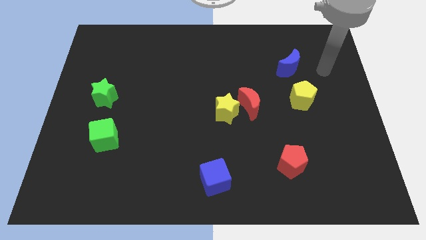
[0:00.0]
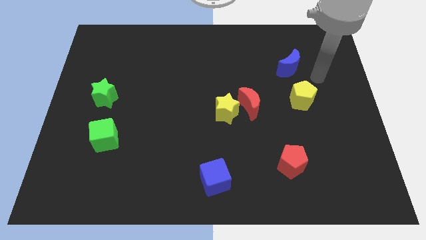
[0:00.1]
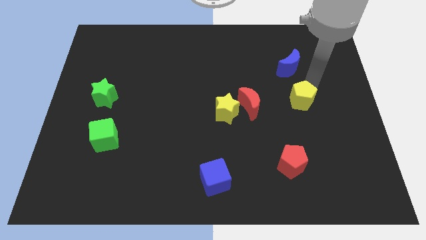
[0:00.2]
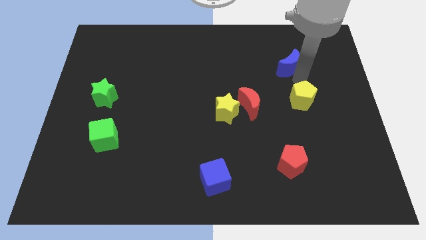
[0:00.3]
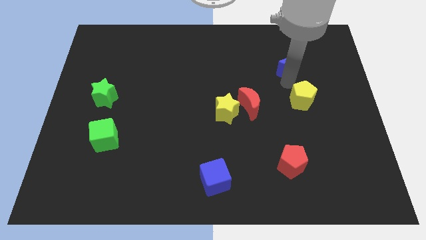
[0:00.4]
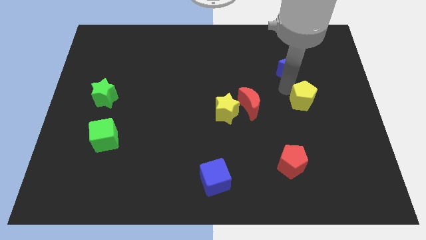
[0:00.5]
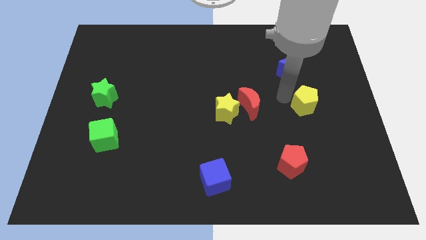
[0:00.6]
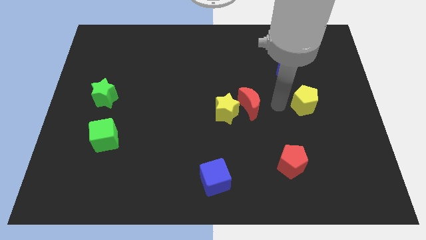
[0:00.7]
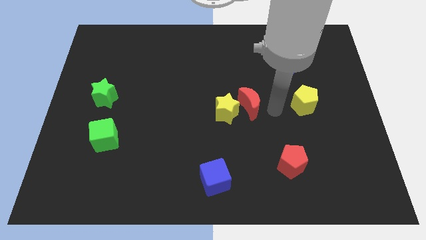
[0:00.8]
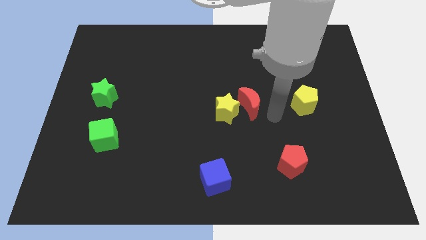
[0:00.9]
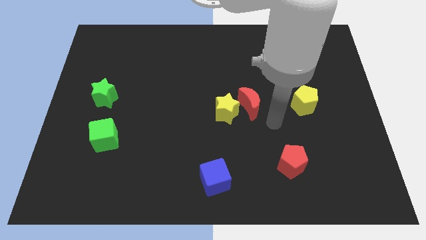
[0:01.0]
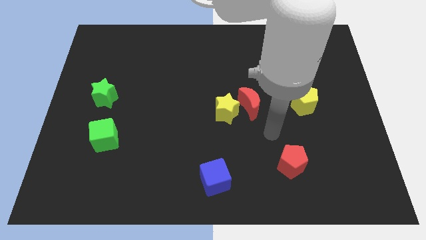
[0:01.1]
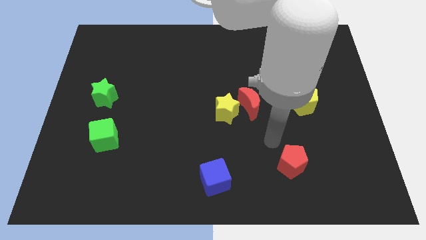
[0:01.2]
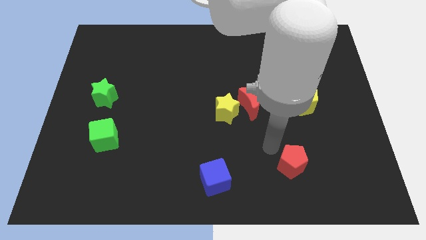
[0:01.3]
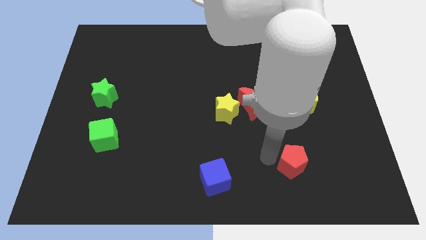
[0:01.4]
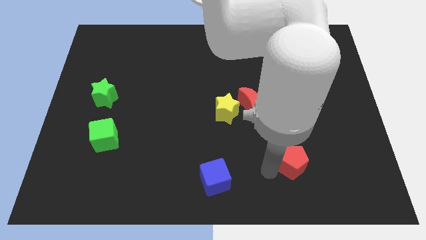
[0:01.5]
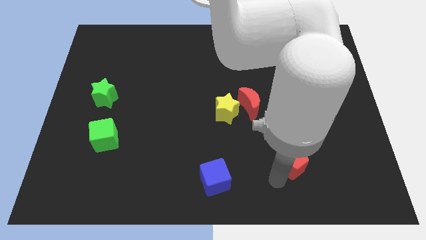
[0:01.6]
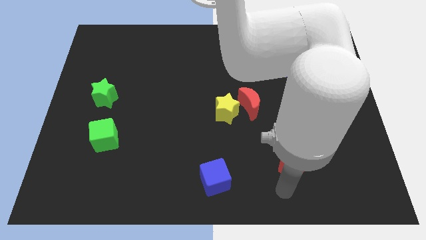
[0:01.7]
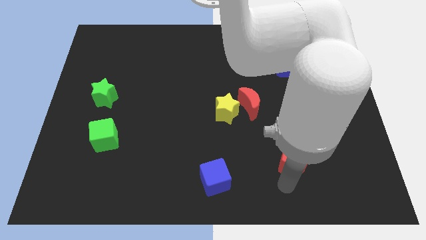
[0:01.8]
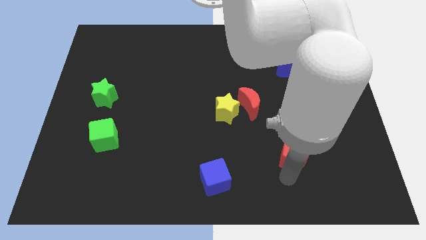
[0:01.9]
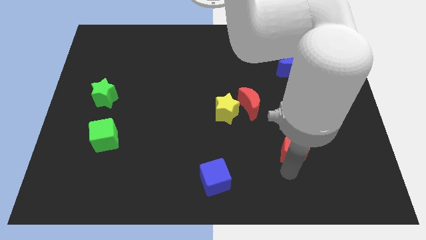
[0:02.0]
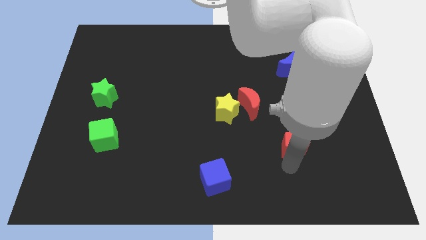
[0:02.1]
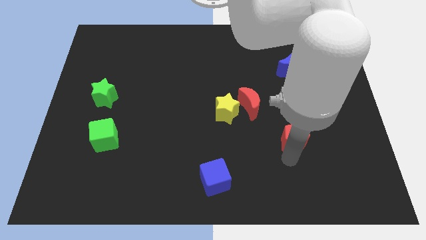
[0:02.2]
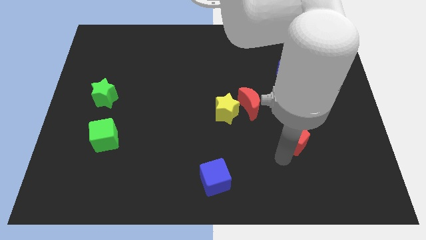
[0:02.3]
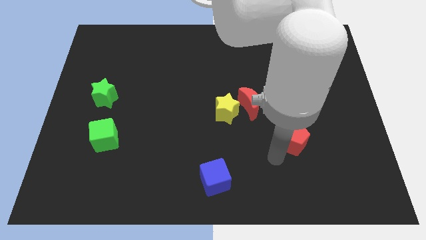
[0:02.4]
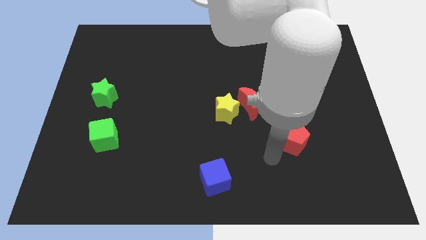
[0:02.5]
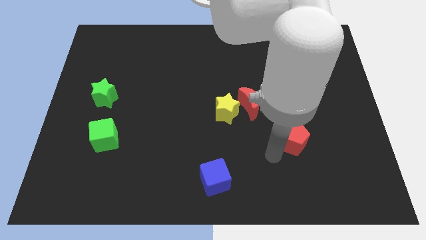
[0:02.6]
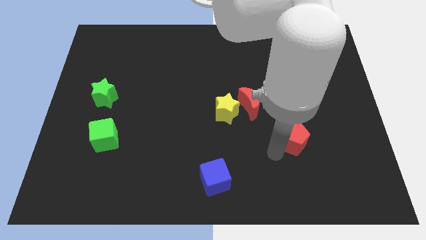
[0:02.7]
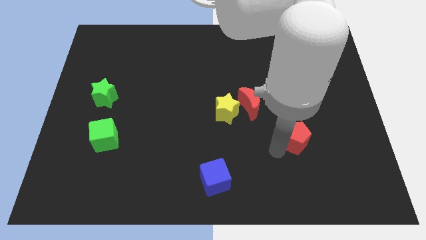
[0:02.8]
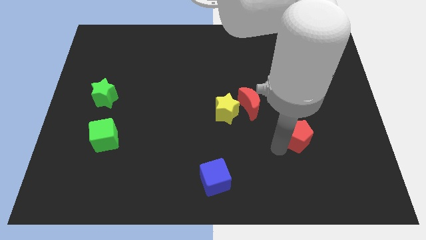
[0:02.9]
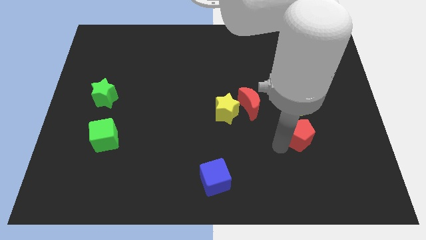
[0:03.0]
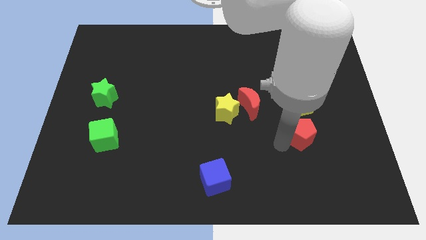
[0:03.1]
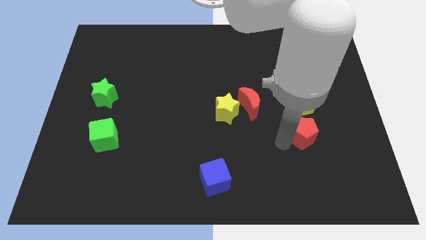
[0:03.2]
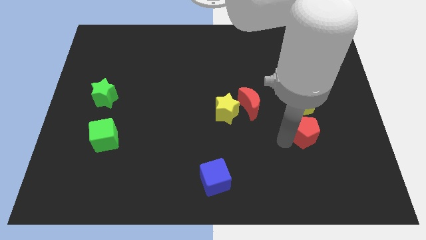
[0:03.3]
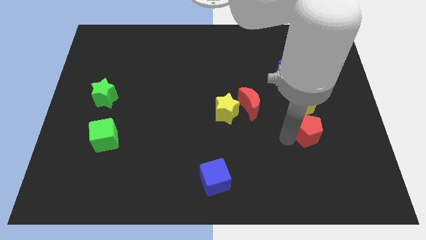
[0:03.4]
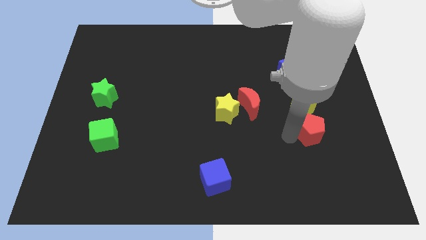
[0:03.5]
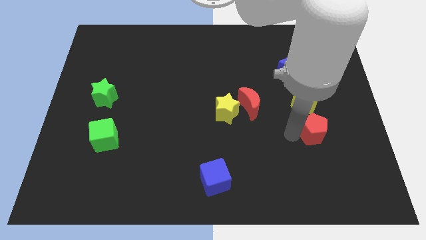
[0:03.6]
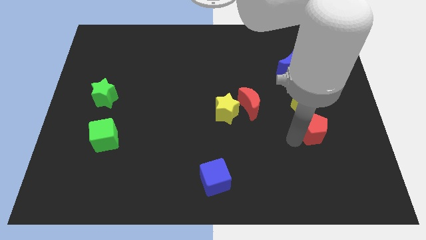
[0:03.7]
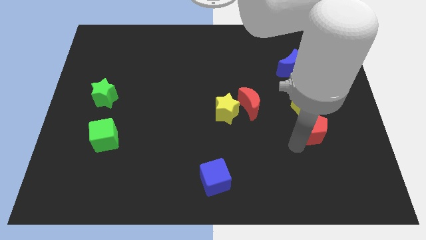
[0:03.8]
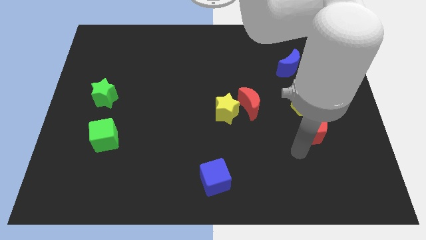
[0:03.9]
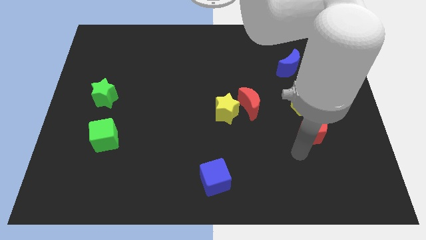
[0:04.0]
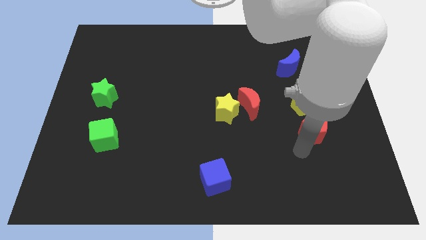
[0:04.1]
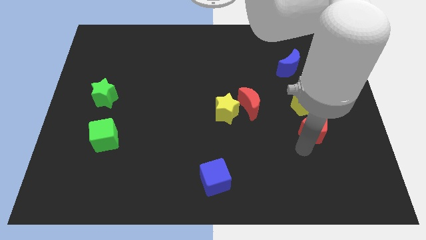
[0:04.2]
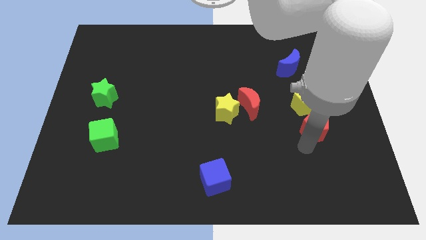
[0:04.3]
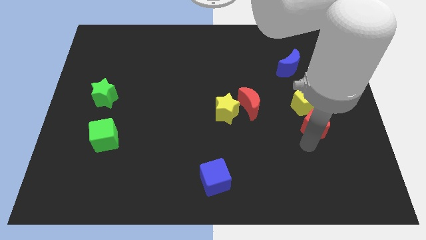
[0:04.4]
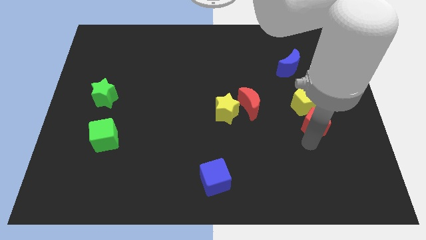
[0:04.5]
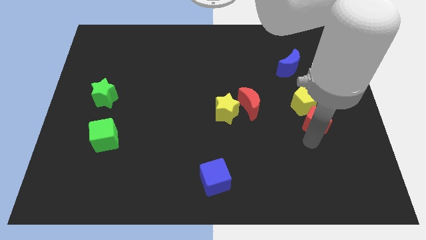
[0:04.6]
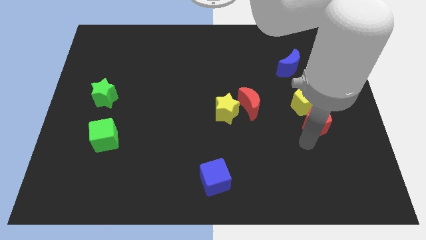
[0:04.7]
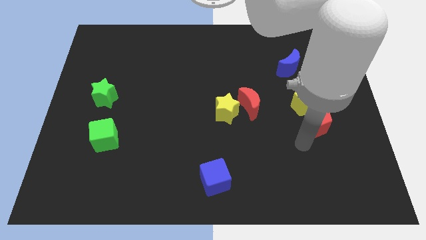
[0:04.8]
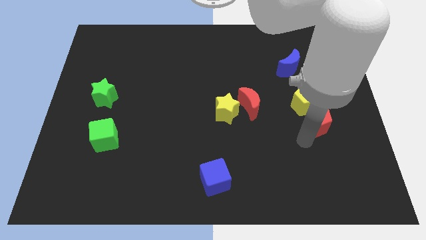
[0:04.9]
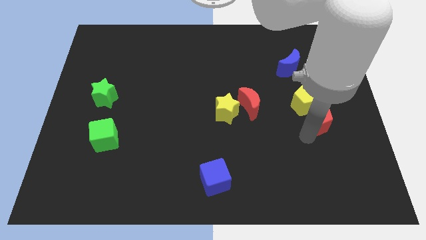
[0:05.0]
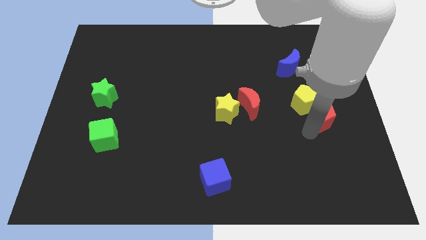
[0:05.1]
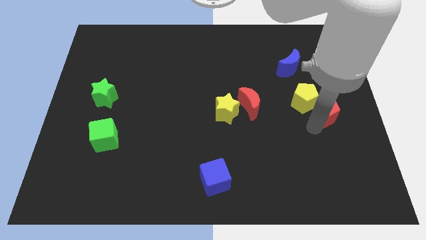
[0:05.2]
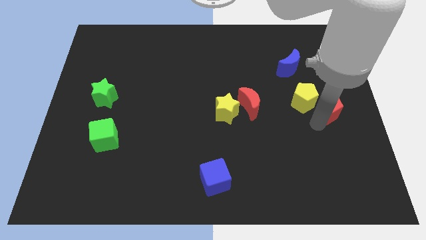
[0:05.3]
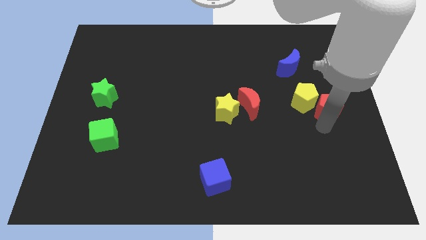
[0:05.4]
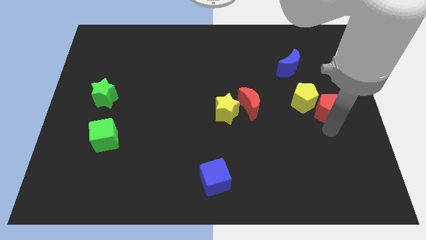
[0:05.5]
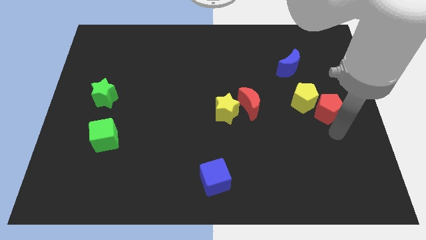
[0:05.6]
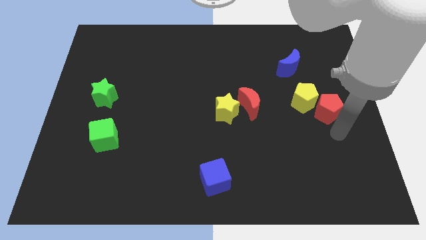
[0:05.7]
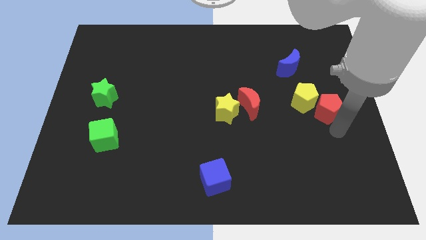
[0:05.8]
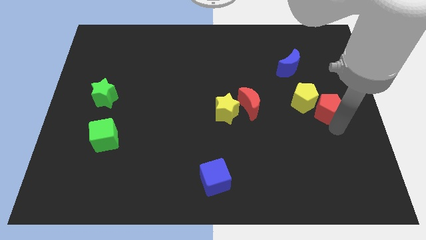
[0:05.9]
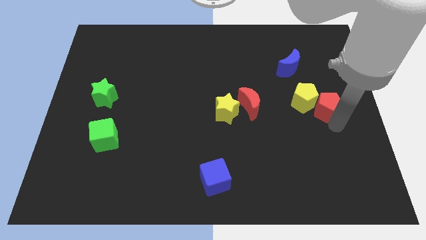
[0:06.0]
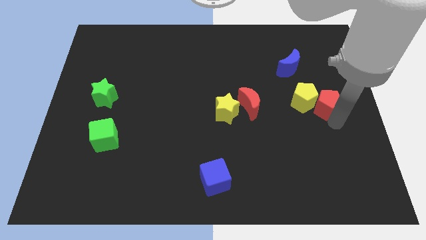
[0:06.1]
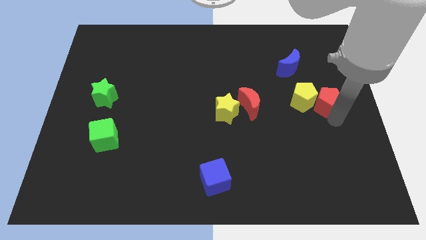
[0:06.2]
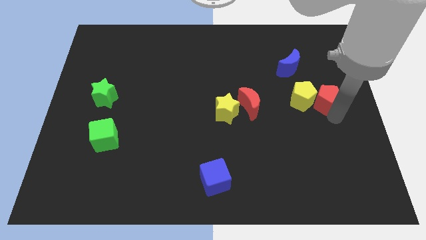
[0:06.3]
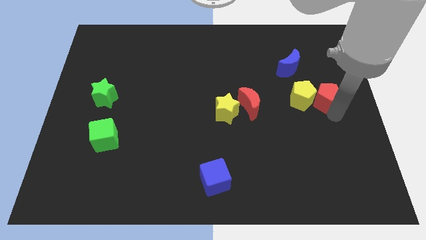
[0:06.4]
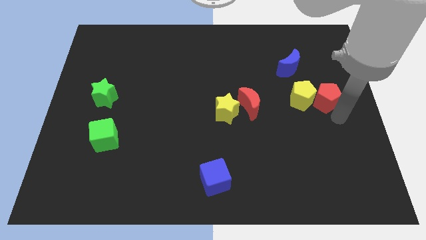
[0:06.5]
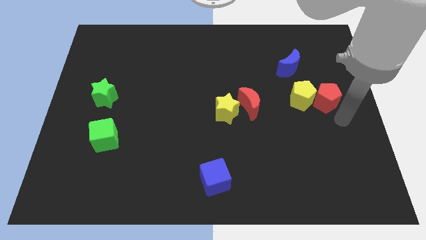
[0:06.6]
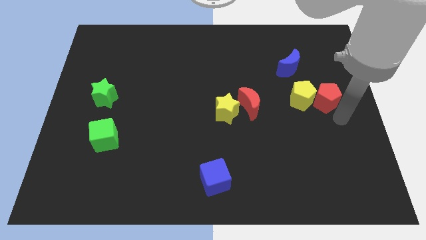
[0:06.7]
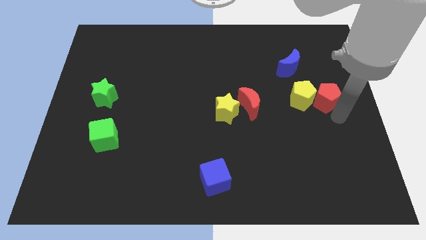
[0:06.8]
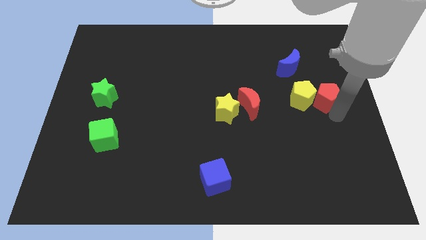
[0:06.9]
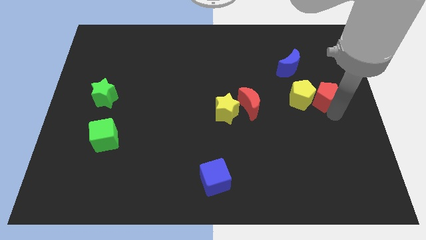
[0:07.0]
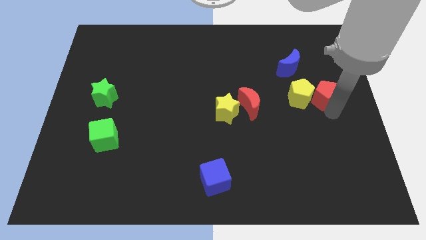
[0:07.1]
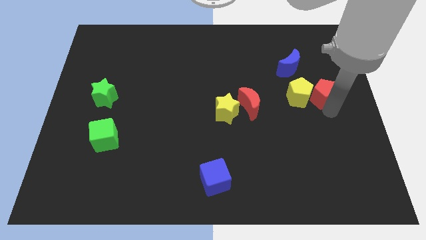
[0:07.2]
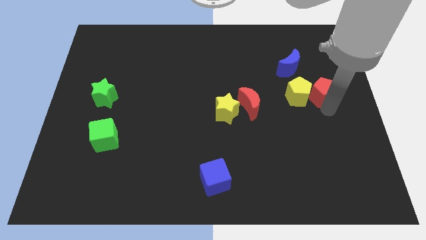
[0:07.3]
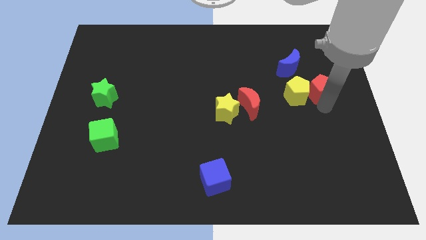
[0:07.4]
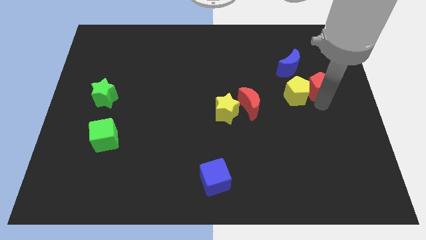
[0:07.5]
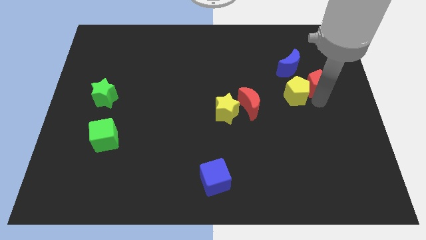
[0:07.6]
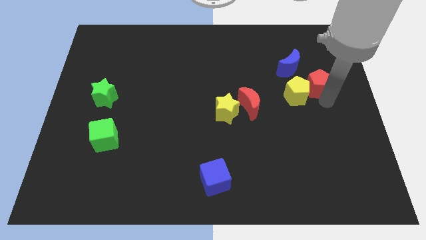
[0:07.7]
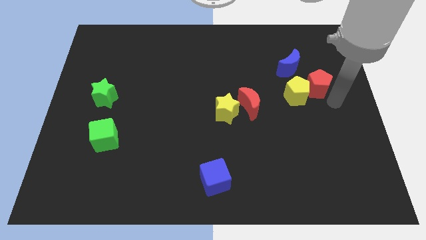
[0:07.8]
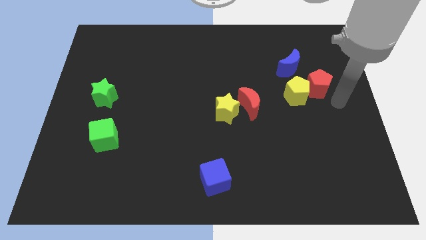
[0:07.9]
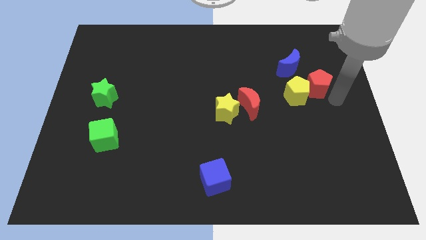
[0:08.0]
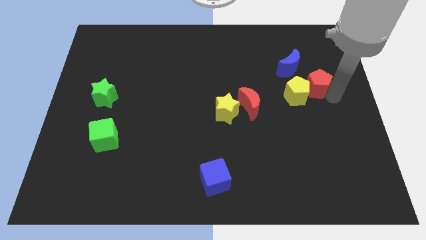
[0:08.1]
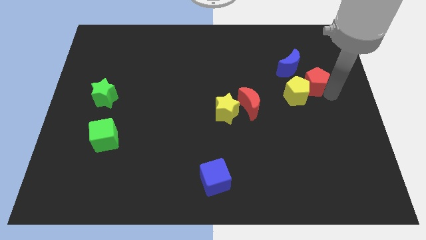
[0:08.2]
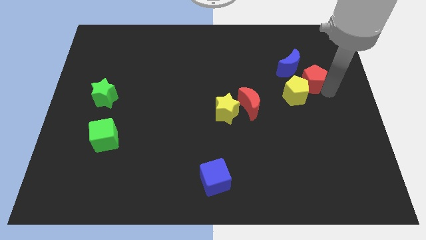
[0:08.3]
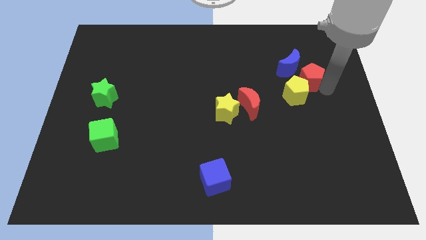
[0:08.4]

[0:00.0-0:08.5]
move the red pentagon close to the blue moon
